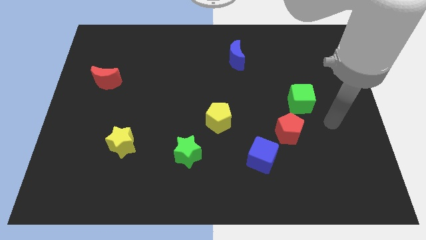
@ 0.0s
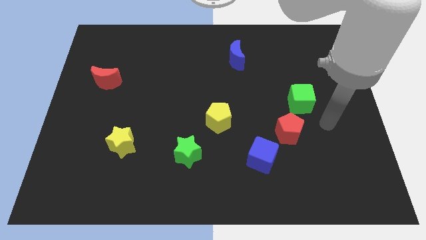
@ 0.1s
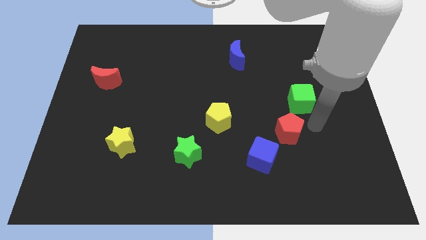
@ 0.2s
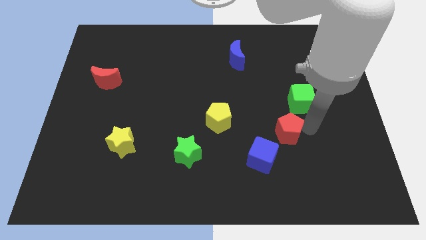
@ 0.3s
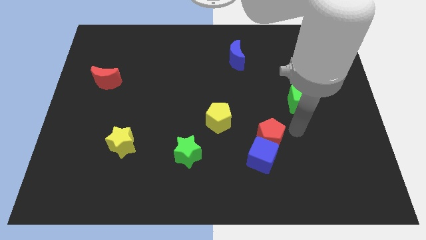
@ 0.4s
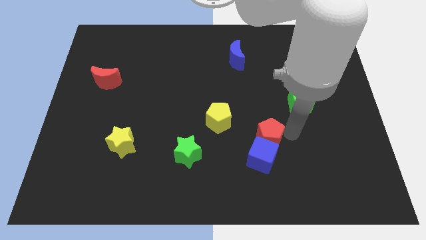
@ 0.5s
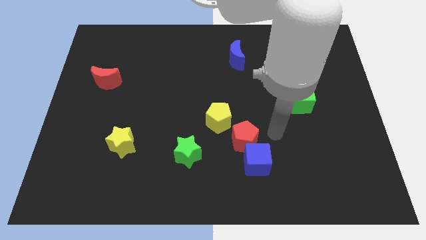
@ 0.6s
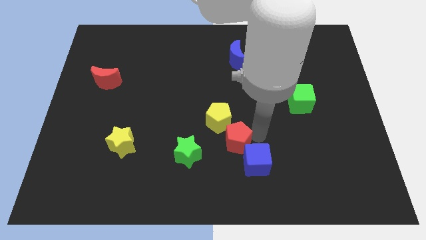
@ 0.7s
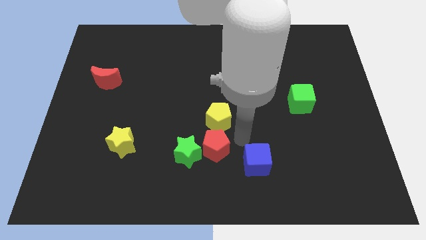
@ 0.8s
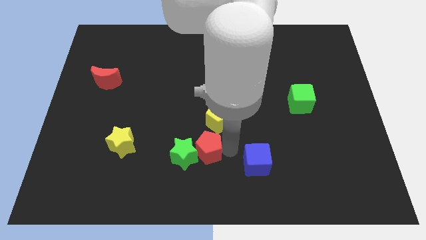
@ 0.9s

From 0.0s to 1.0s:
separate the blue cube from the red pentagon

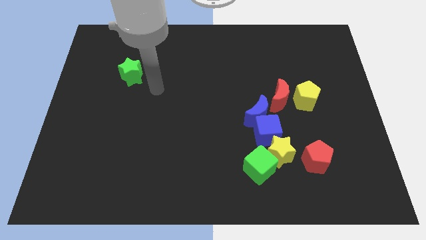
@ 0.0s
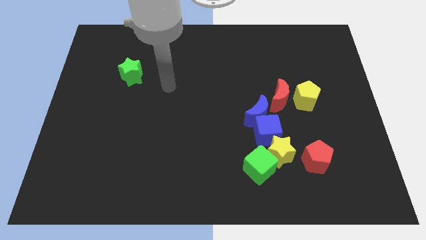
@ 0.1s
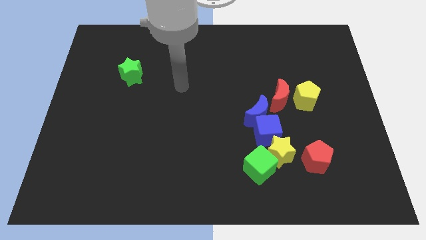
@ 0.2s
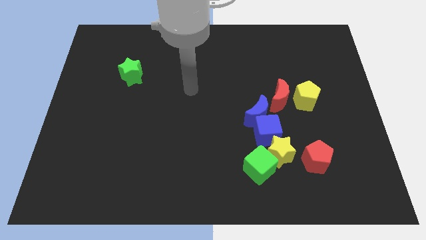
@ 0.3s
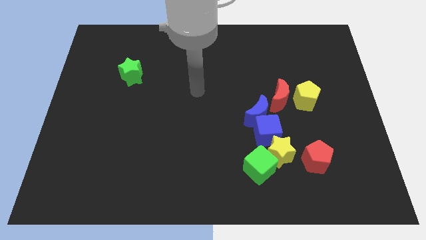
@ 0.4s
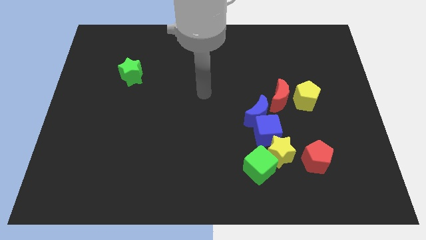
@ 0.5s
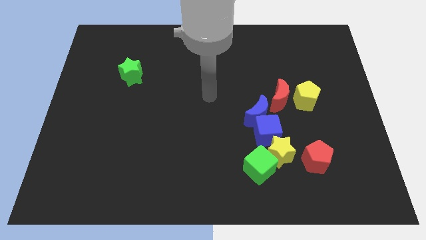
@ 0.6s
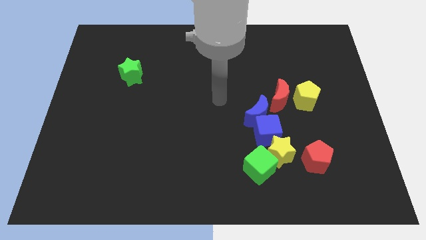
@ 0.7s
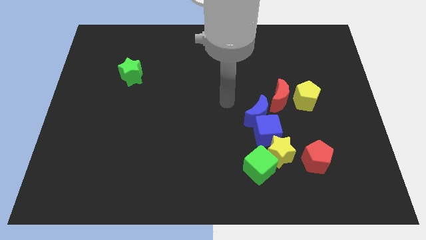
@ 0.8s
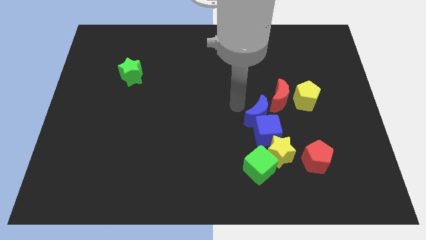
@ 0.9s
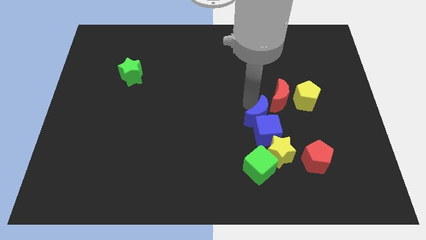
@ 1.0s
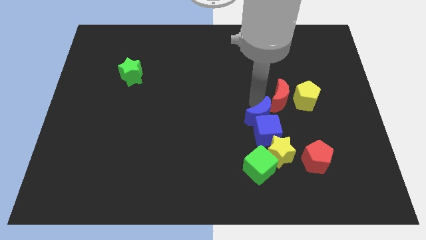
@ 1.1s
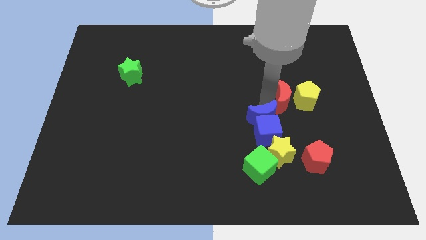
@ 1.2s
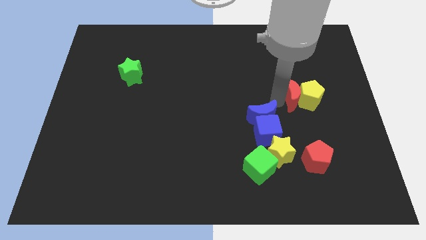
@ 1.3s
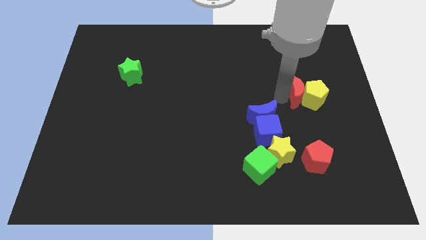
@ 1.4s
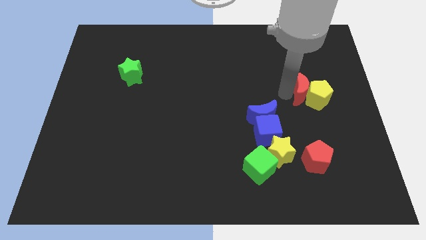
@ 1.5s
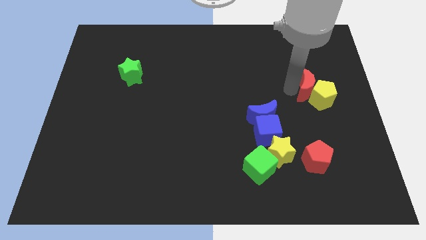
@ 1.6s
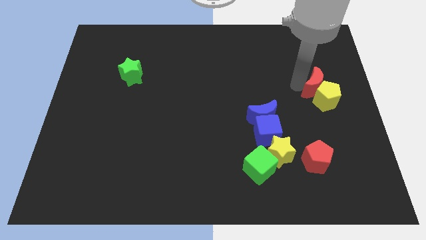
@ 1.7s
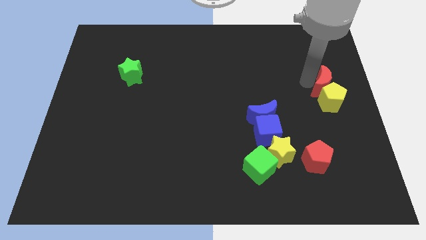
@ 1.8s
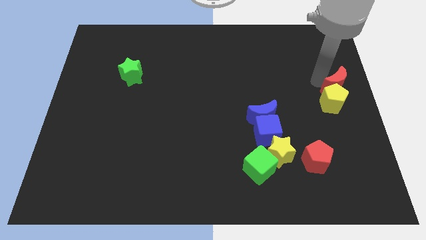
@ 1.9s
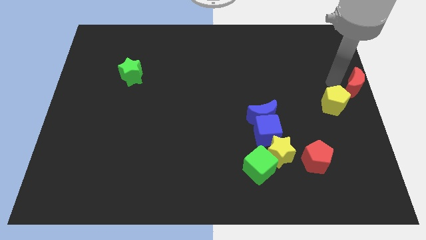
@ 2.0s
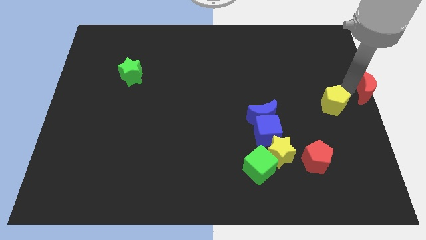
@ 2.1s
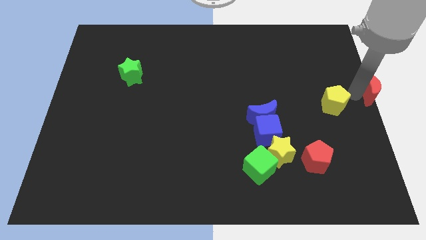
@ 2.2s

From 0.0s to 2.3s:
separate the yellow pentagon from the red moon

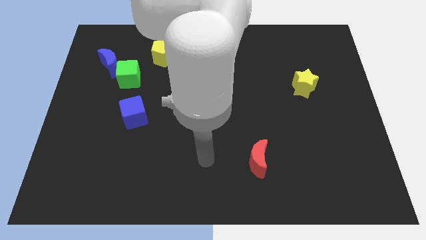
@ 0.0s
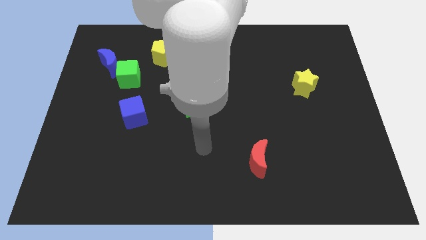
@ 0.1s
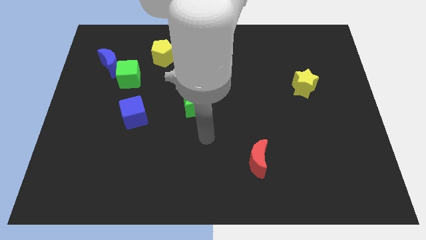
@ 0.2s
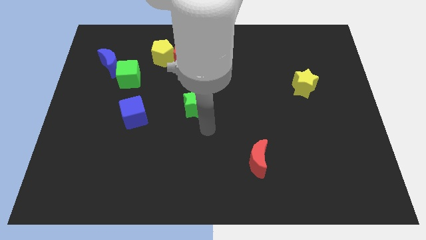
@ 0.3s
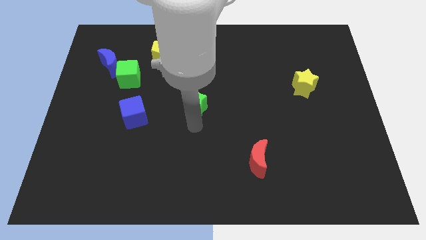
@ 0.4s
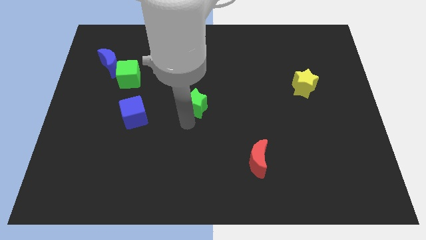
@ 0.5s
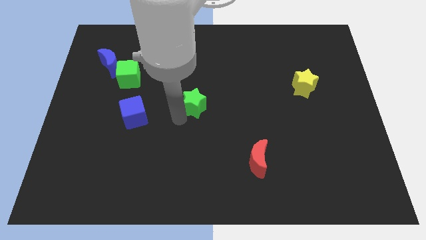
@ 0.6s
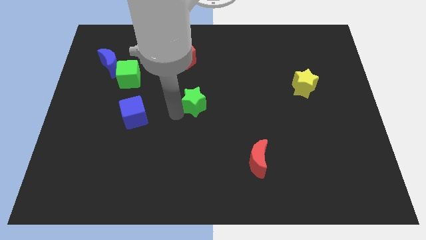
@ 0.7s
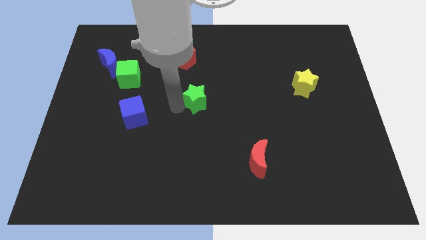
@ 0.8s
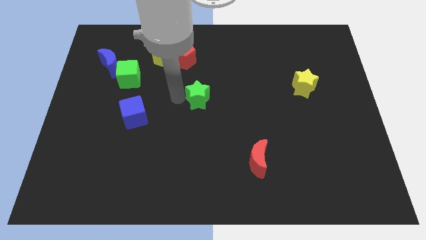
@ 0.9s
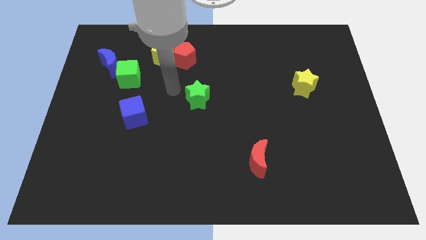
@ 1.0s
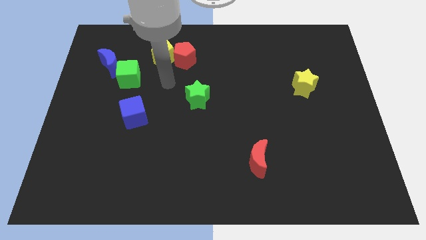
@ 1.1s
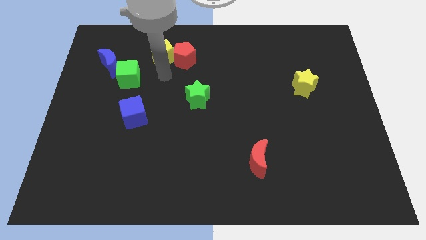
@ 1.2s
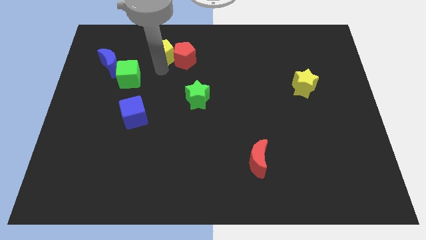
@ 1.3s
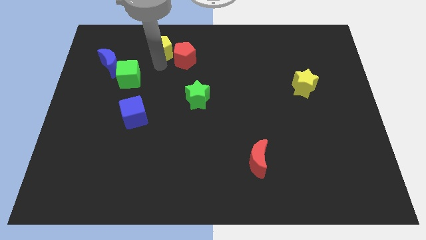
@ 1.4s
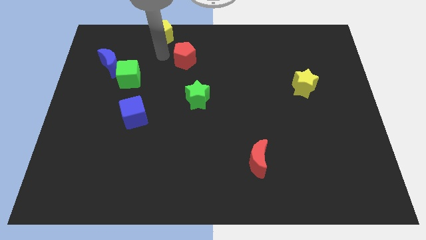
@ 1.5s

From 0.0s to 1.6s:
move the red pentagon away from the yellow pentagon

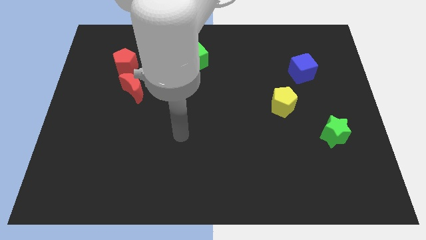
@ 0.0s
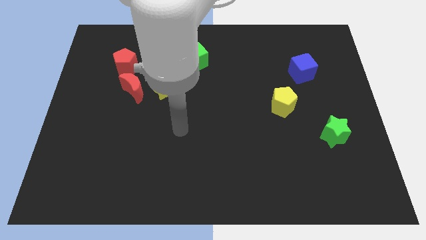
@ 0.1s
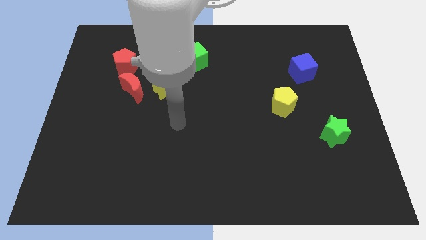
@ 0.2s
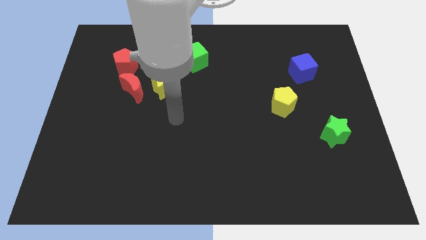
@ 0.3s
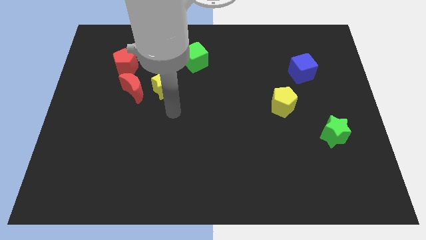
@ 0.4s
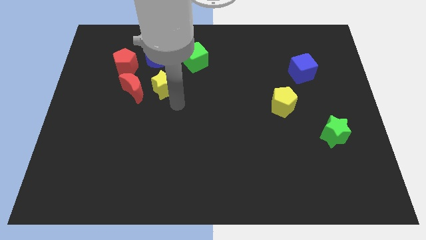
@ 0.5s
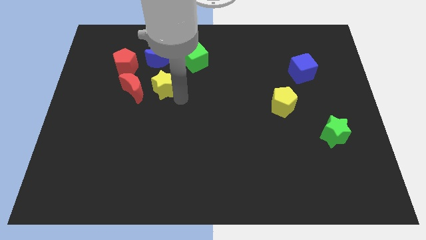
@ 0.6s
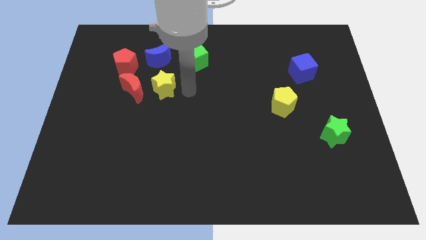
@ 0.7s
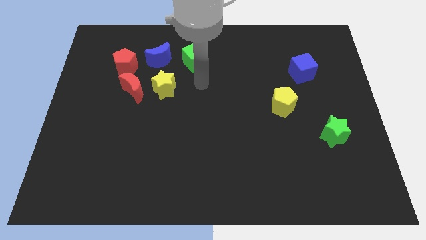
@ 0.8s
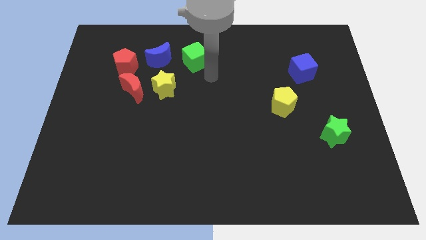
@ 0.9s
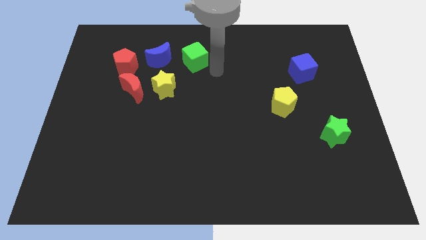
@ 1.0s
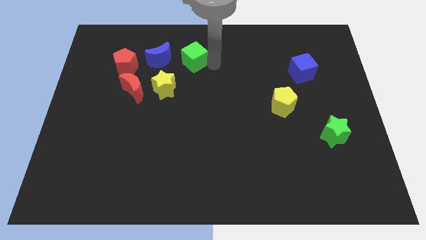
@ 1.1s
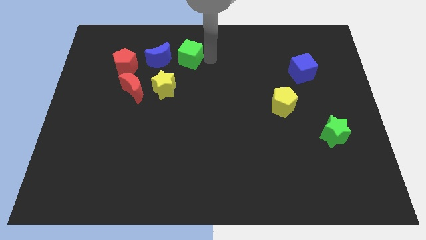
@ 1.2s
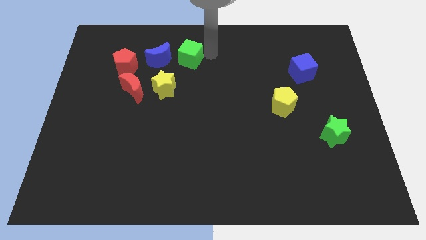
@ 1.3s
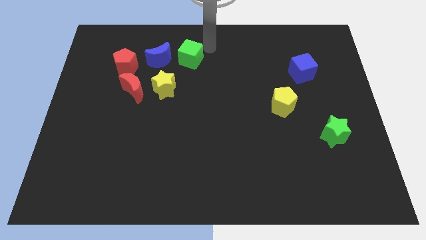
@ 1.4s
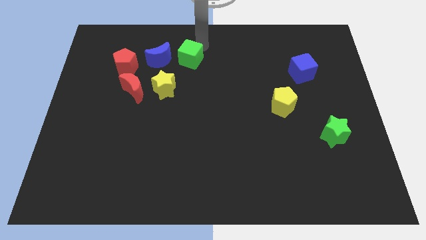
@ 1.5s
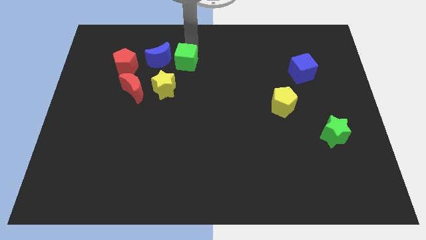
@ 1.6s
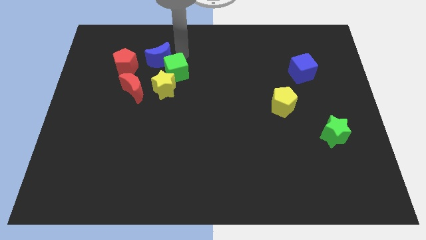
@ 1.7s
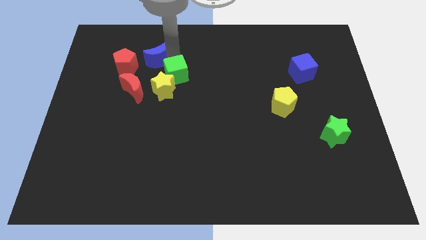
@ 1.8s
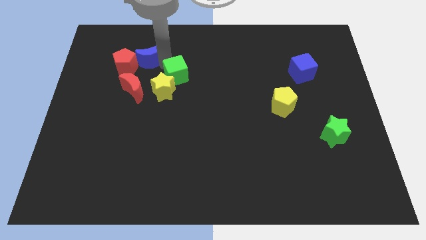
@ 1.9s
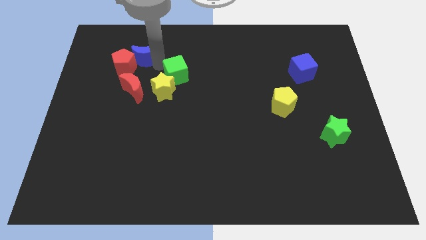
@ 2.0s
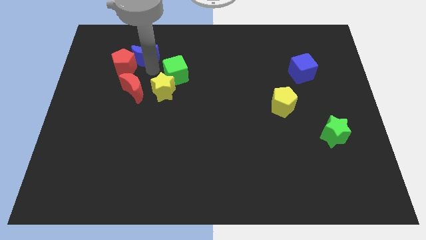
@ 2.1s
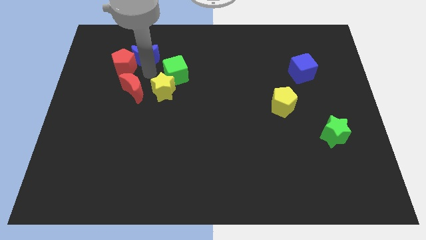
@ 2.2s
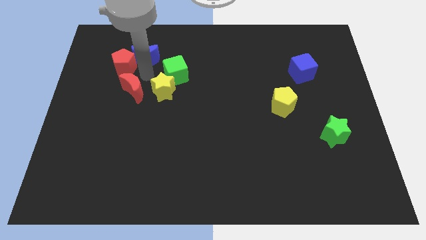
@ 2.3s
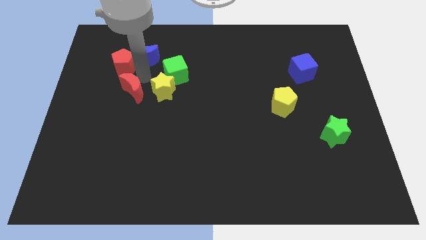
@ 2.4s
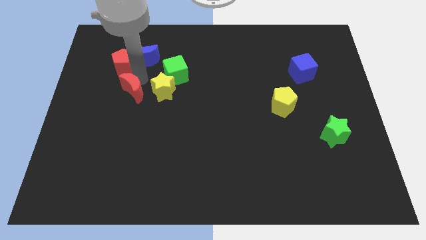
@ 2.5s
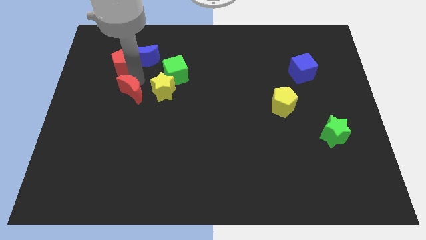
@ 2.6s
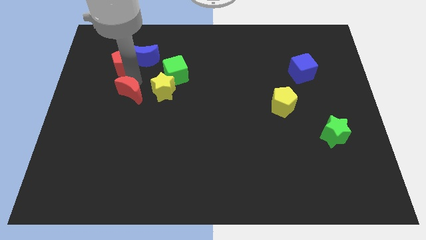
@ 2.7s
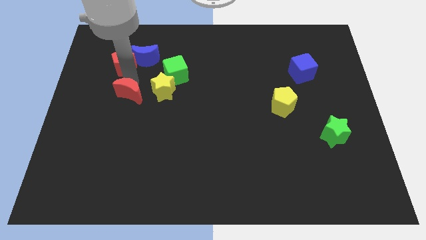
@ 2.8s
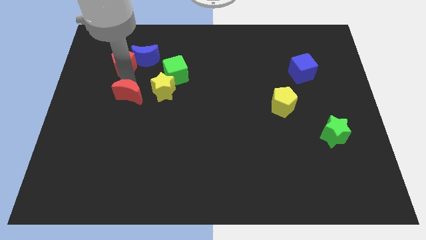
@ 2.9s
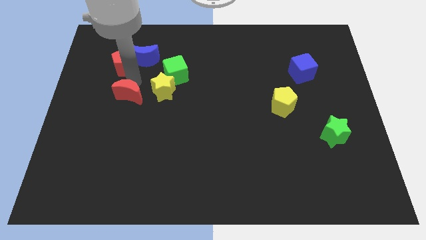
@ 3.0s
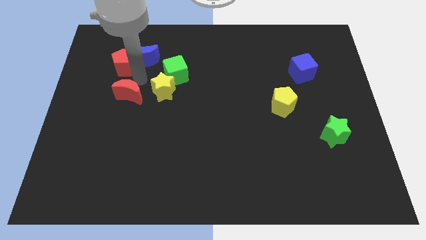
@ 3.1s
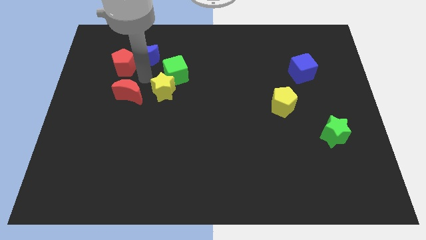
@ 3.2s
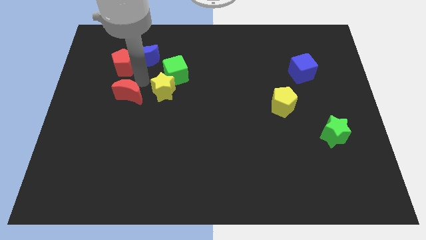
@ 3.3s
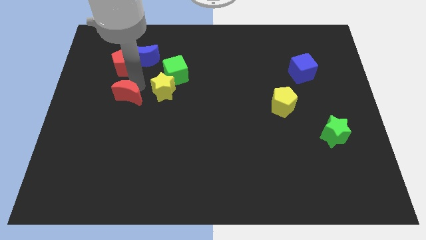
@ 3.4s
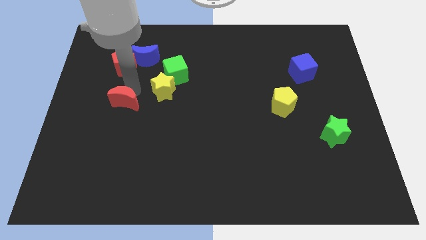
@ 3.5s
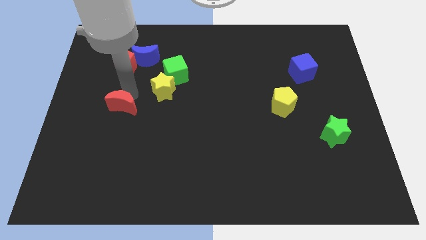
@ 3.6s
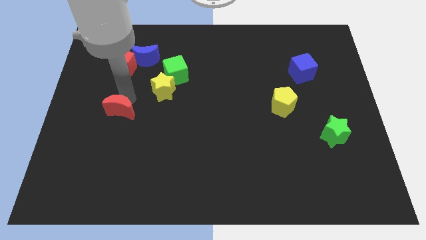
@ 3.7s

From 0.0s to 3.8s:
pull the red moon apart from the yellow star and red pentagon

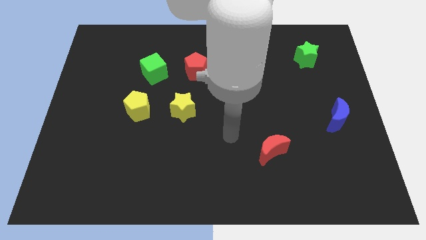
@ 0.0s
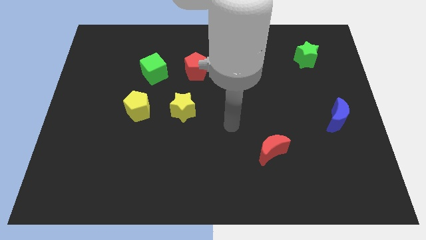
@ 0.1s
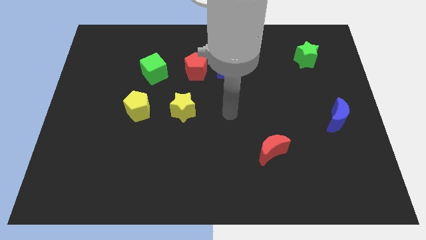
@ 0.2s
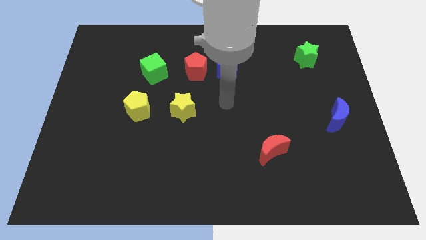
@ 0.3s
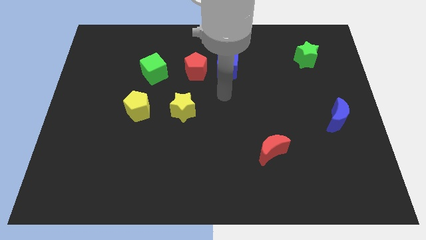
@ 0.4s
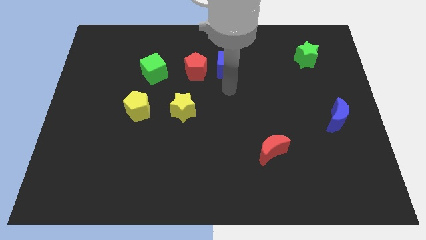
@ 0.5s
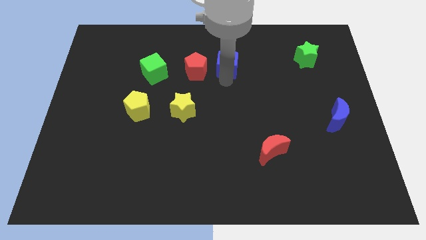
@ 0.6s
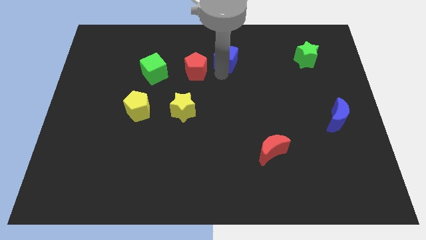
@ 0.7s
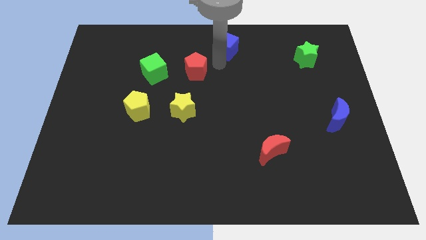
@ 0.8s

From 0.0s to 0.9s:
pull the red pentagon apart from the blue cube
